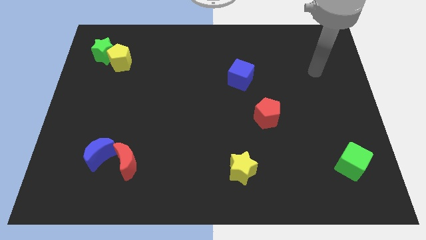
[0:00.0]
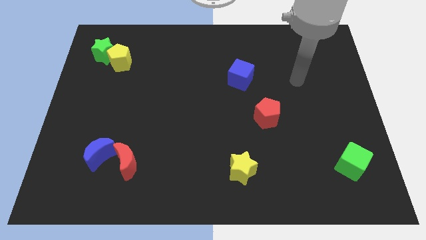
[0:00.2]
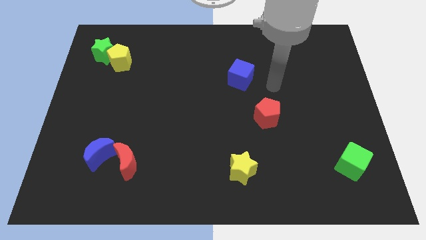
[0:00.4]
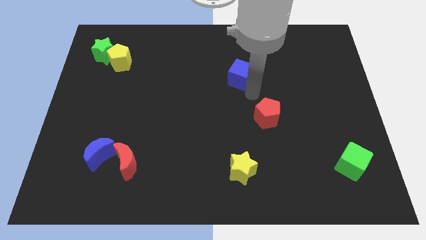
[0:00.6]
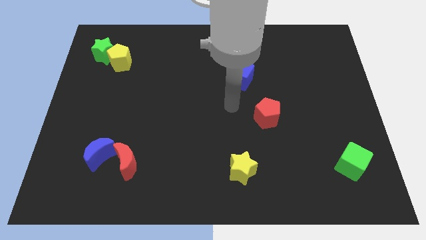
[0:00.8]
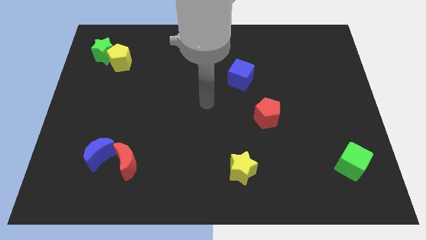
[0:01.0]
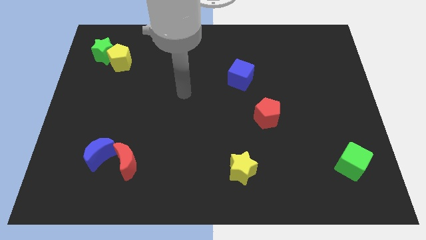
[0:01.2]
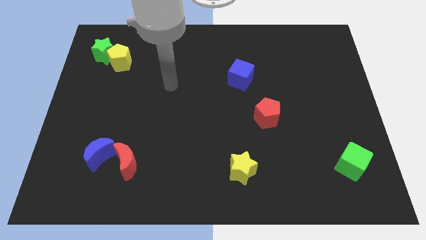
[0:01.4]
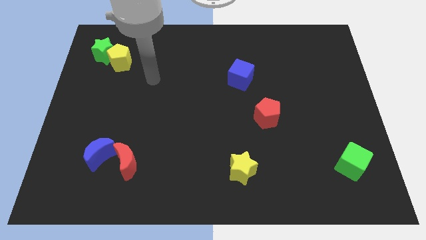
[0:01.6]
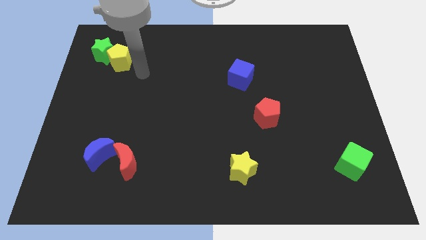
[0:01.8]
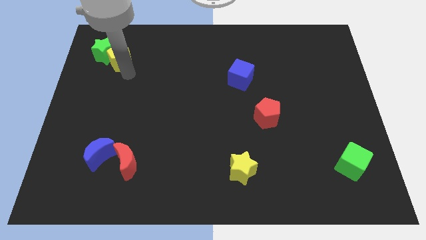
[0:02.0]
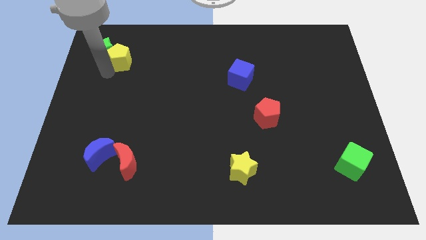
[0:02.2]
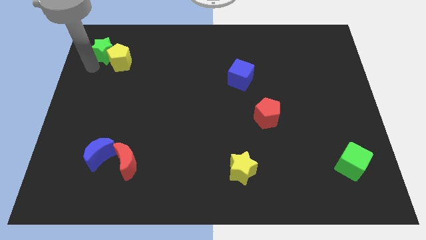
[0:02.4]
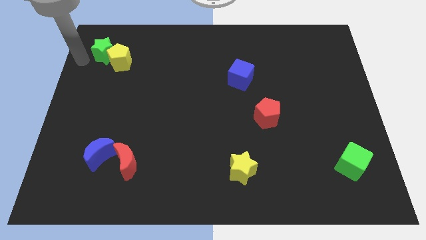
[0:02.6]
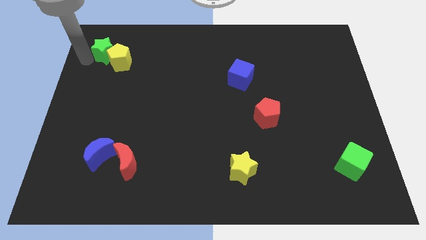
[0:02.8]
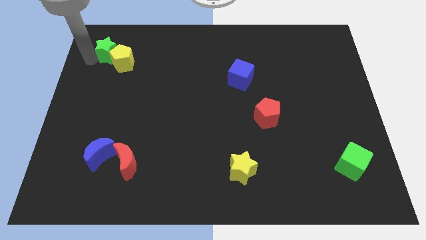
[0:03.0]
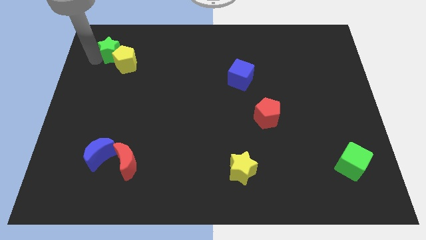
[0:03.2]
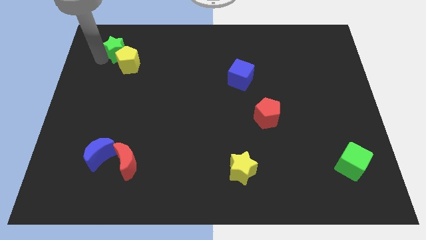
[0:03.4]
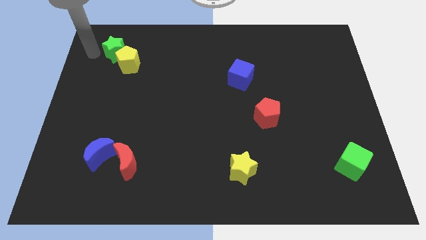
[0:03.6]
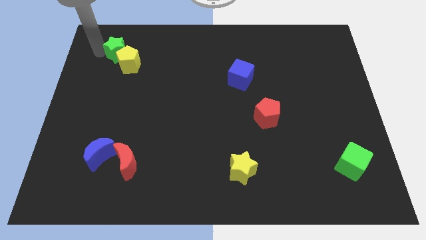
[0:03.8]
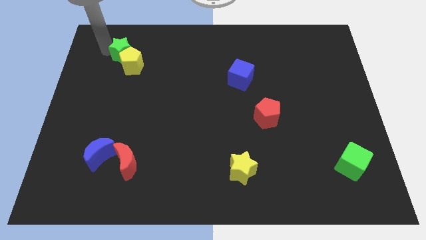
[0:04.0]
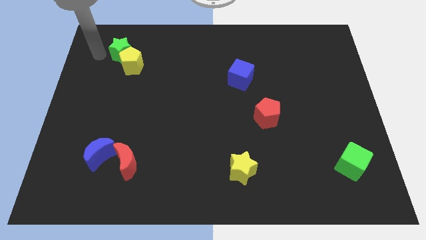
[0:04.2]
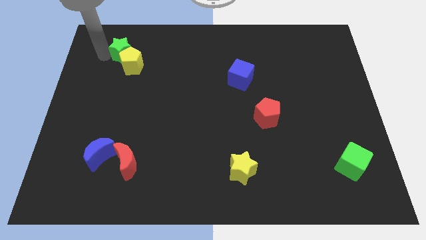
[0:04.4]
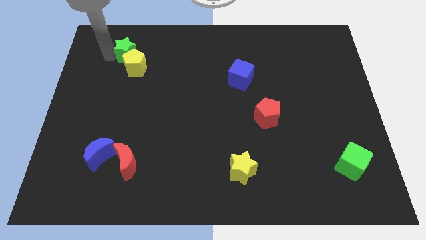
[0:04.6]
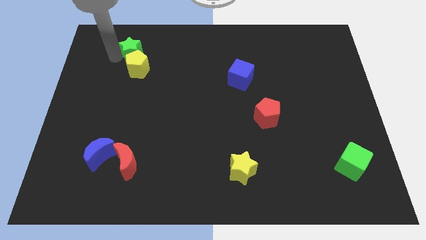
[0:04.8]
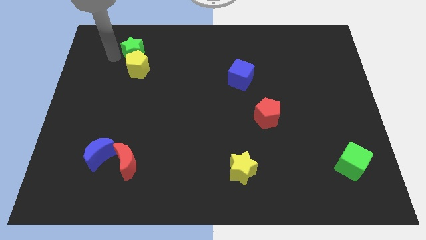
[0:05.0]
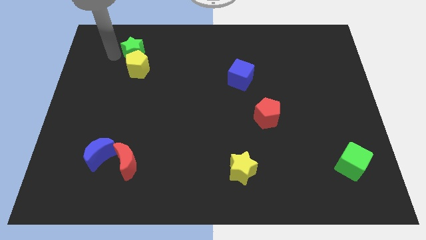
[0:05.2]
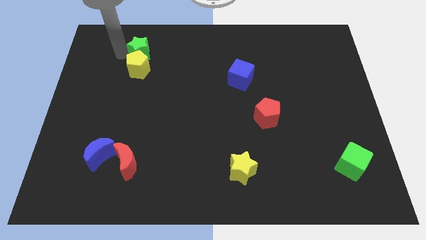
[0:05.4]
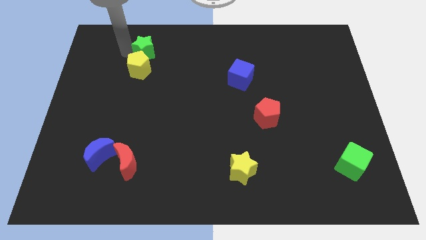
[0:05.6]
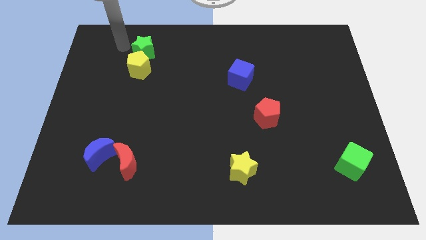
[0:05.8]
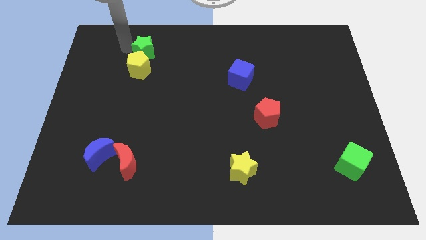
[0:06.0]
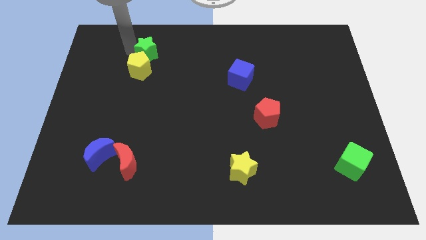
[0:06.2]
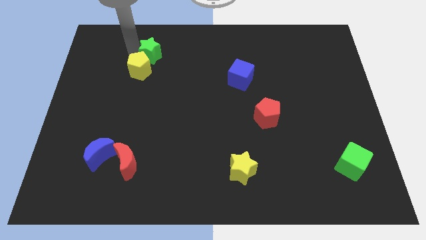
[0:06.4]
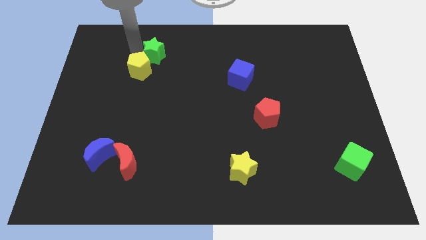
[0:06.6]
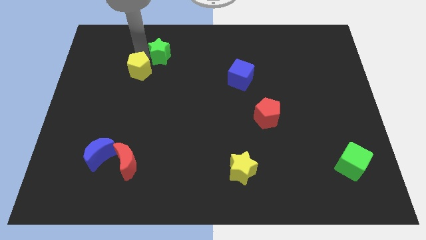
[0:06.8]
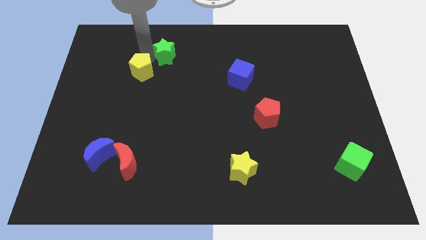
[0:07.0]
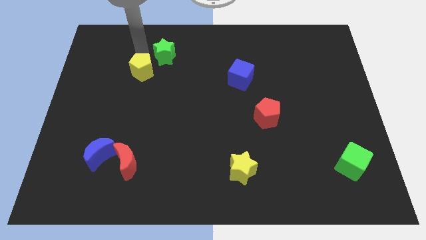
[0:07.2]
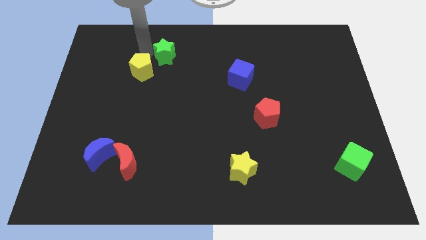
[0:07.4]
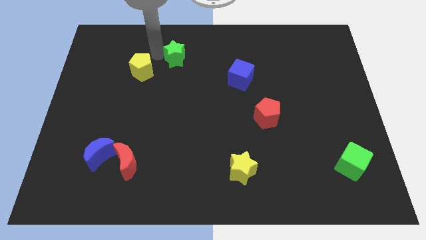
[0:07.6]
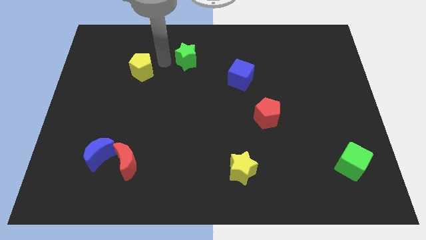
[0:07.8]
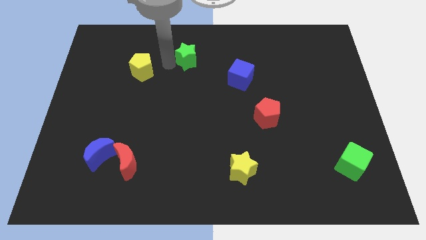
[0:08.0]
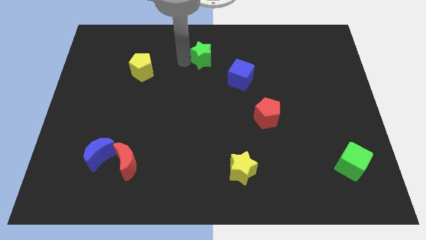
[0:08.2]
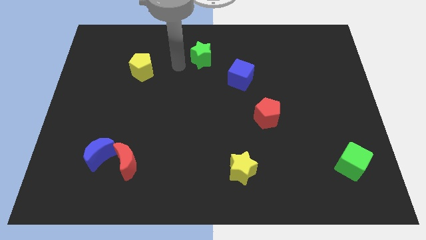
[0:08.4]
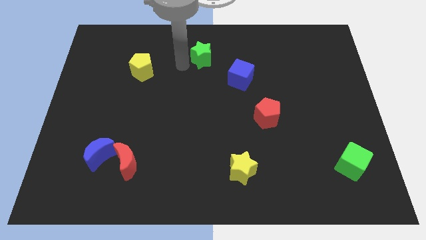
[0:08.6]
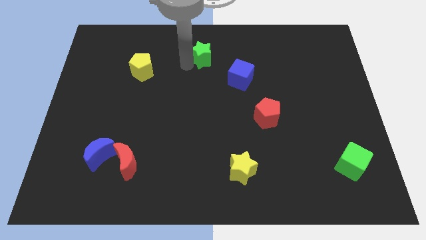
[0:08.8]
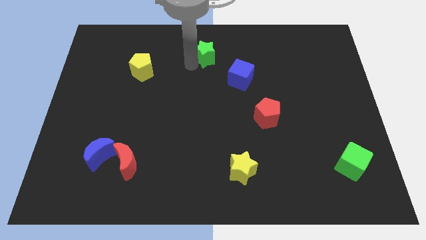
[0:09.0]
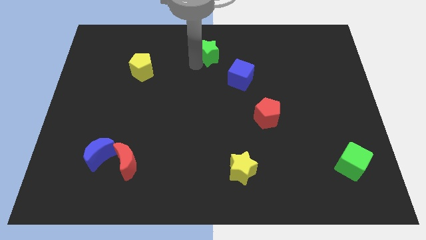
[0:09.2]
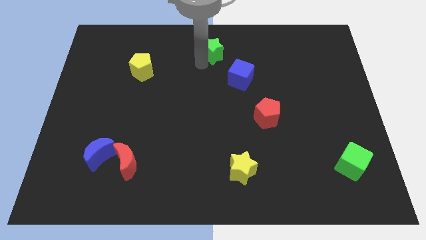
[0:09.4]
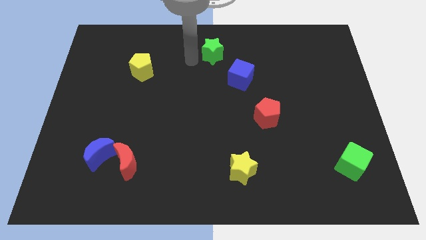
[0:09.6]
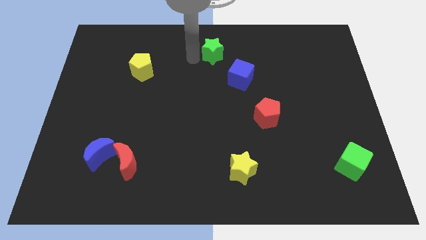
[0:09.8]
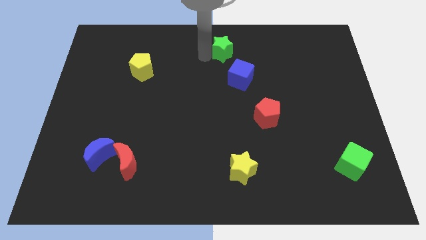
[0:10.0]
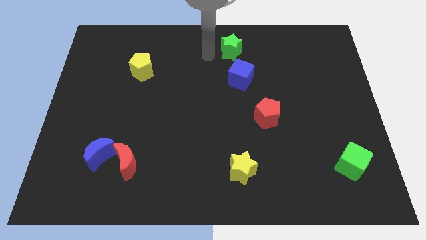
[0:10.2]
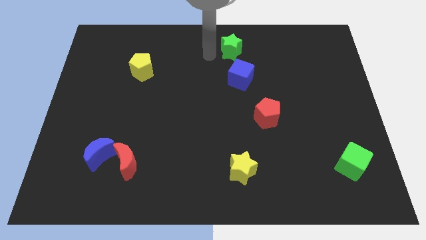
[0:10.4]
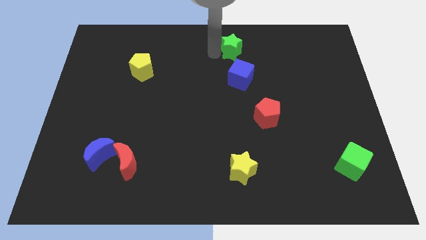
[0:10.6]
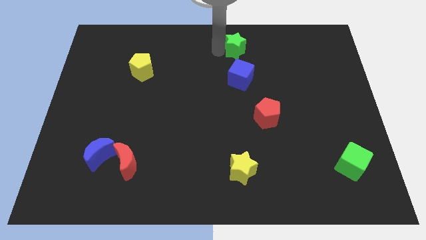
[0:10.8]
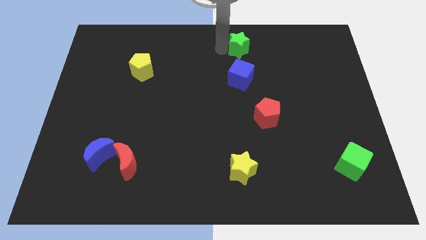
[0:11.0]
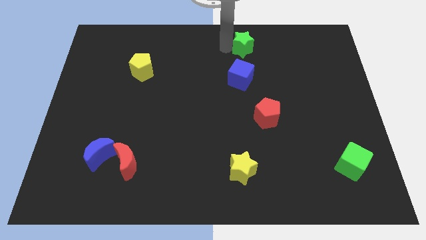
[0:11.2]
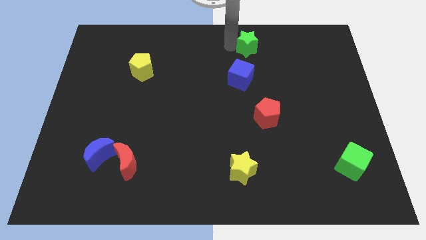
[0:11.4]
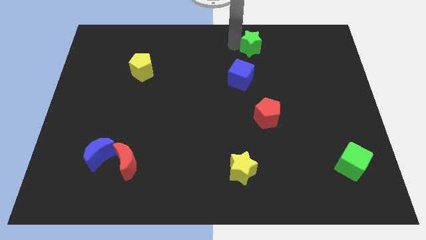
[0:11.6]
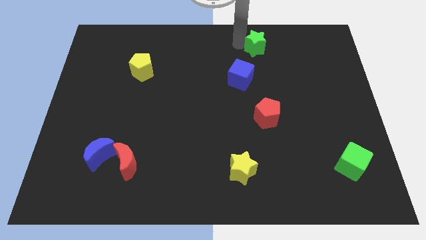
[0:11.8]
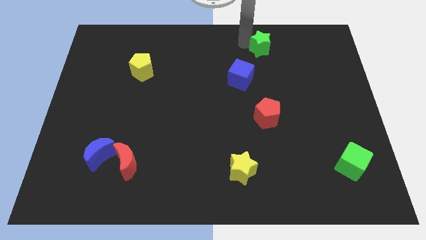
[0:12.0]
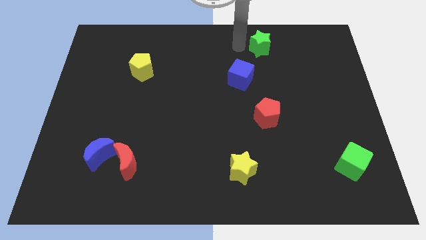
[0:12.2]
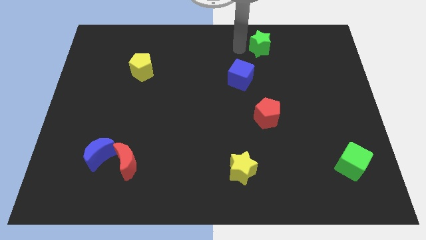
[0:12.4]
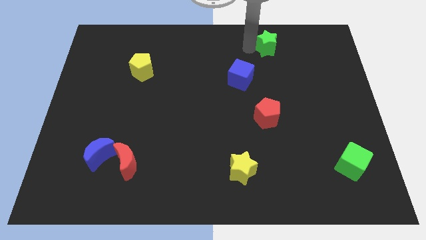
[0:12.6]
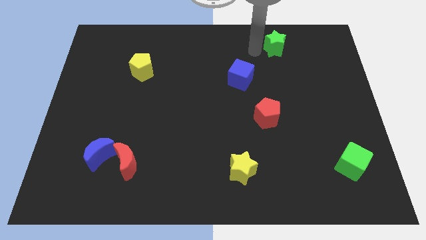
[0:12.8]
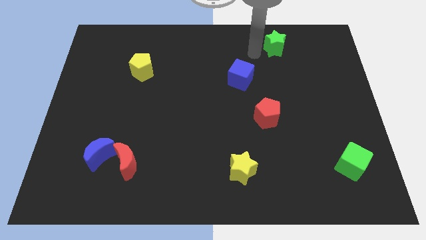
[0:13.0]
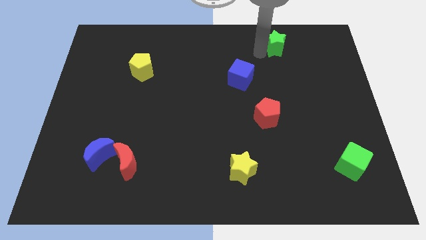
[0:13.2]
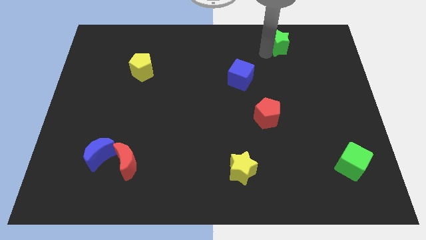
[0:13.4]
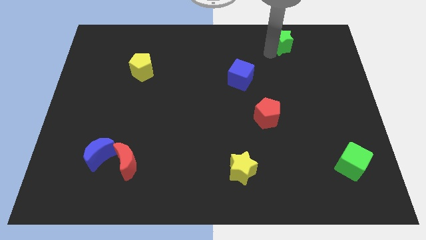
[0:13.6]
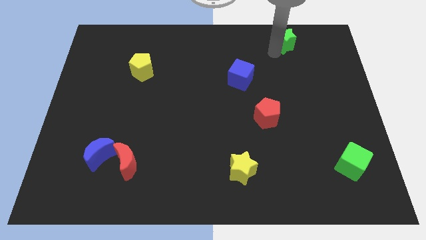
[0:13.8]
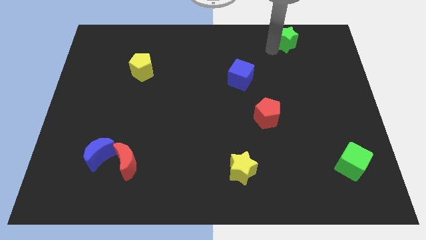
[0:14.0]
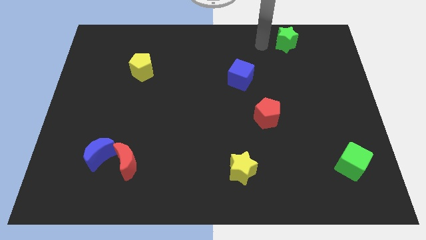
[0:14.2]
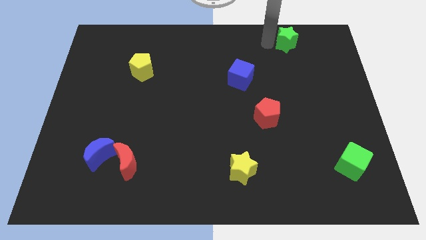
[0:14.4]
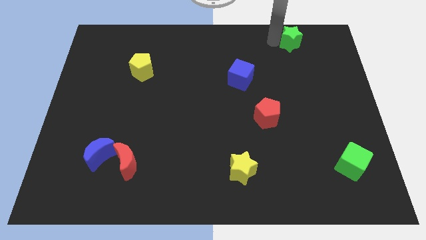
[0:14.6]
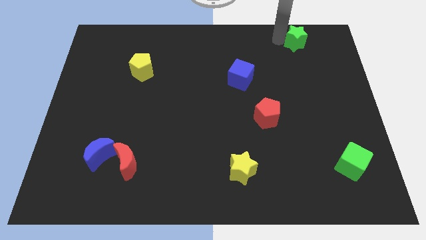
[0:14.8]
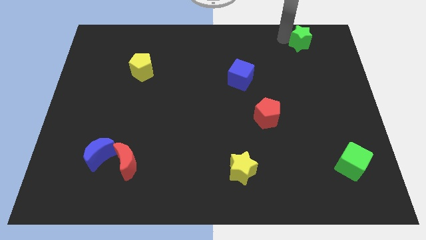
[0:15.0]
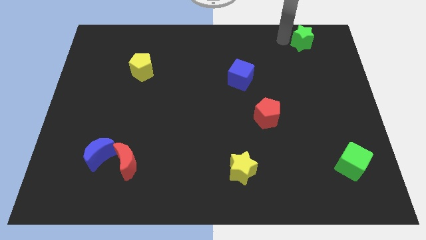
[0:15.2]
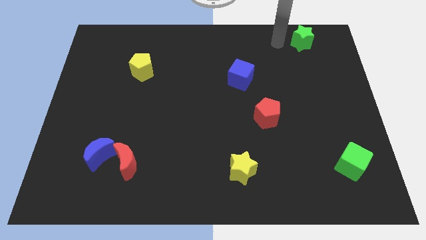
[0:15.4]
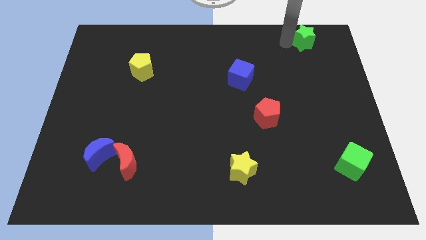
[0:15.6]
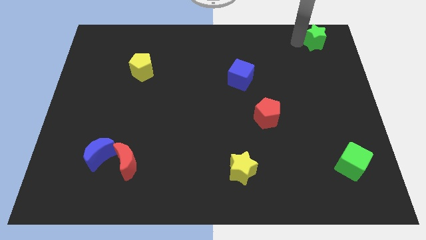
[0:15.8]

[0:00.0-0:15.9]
push the green star to the top right
